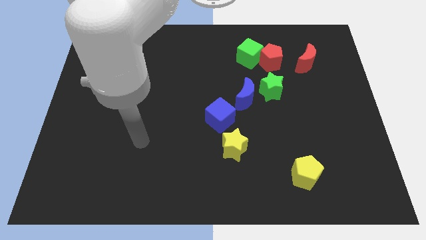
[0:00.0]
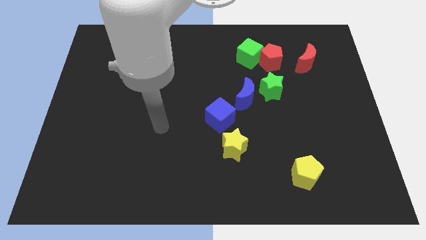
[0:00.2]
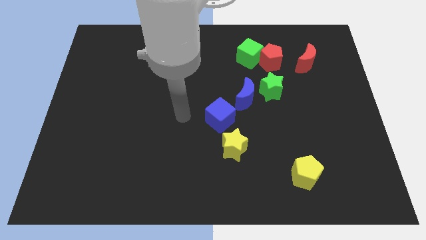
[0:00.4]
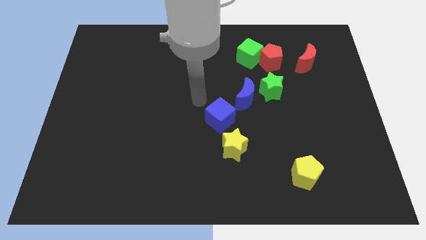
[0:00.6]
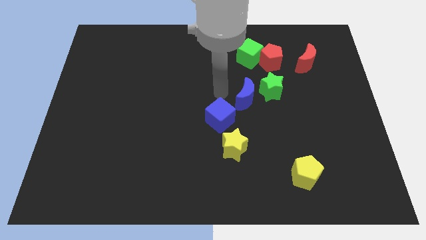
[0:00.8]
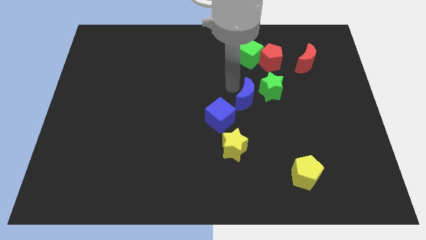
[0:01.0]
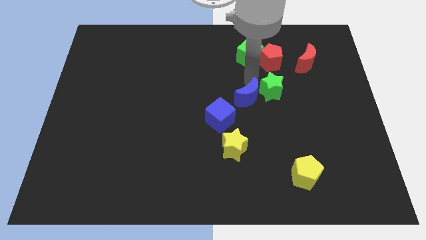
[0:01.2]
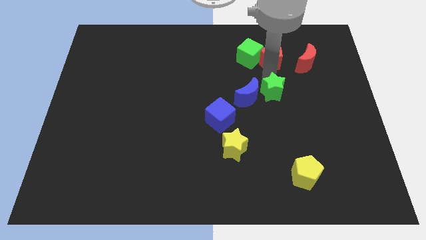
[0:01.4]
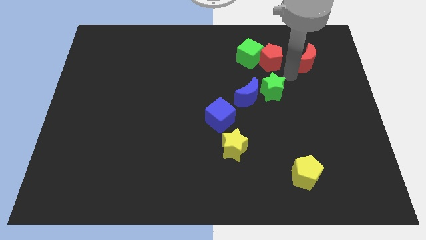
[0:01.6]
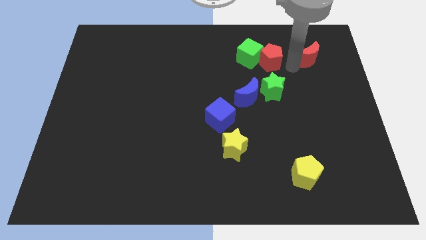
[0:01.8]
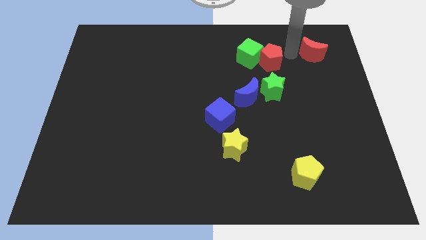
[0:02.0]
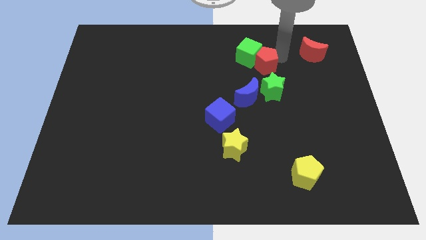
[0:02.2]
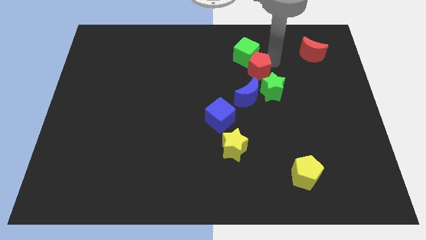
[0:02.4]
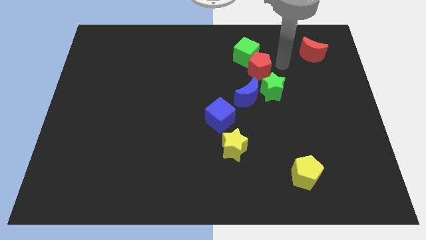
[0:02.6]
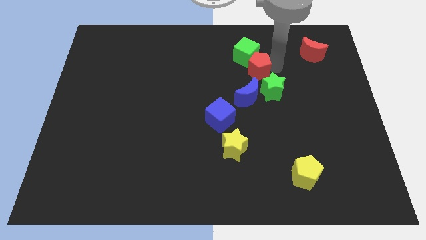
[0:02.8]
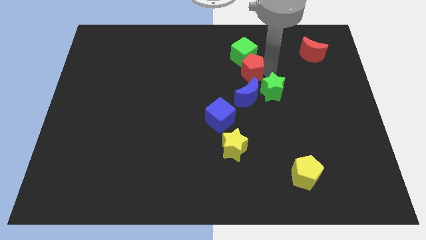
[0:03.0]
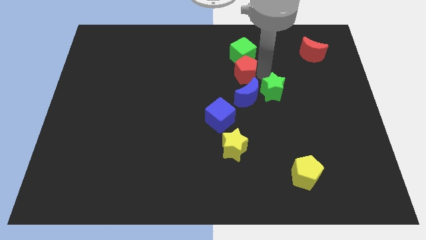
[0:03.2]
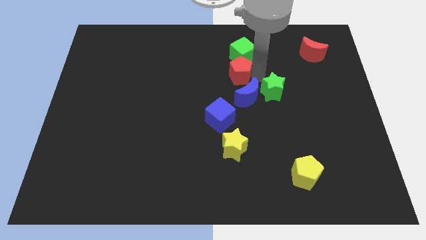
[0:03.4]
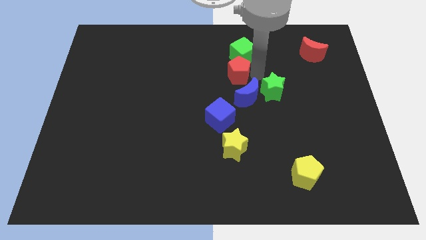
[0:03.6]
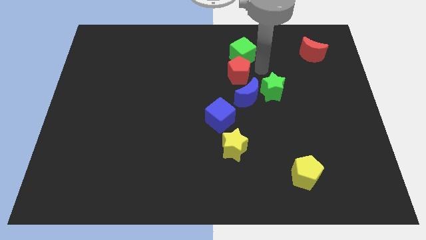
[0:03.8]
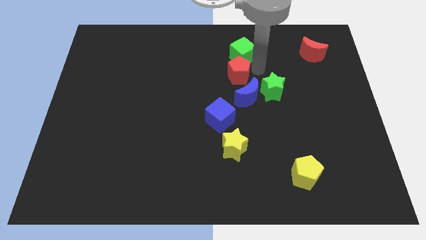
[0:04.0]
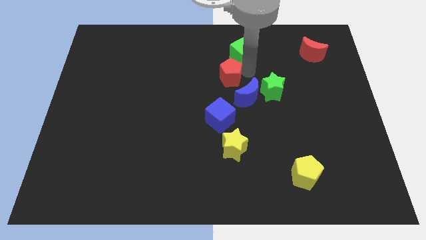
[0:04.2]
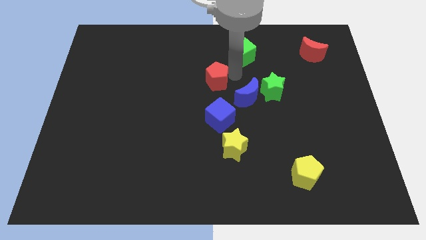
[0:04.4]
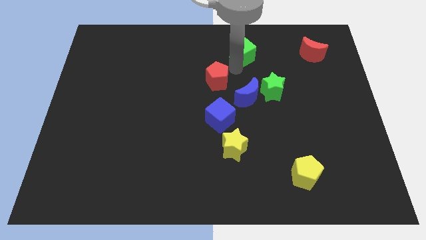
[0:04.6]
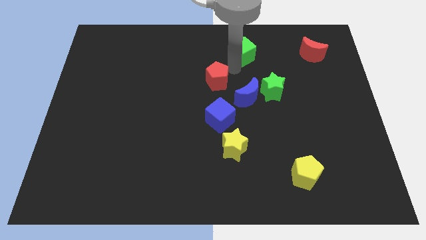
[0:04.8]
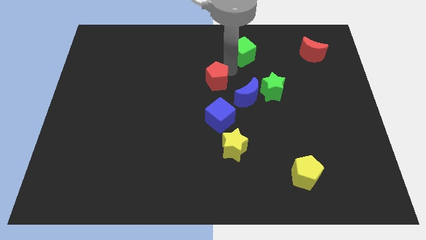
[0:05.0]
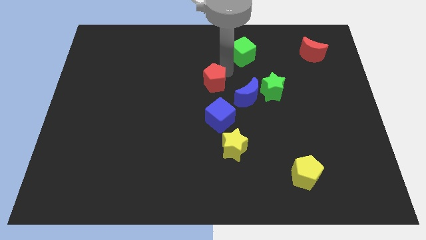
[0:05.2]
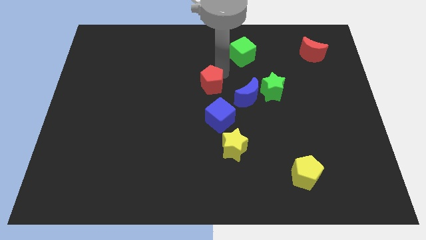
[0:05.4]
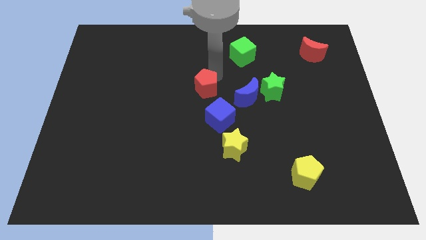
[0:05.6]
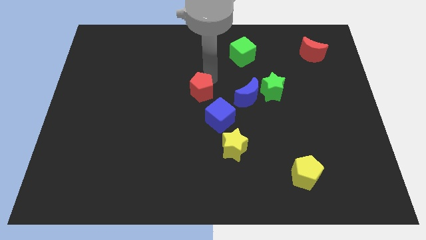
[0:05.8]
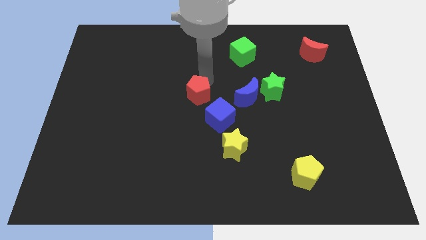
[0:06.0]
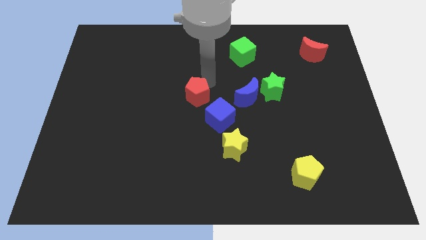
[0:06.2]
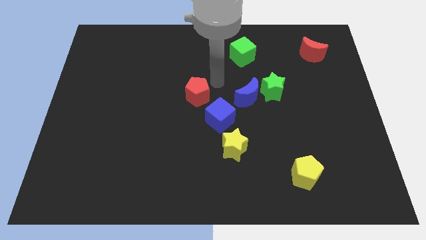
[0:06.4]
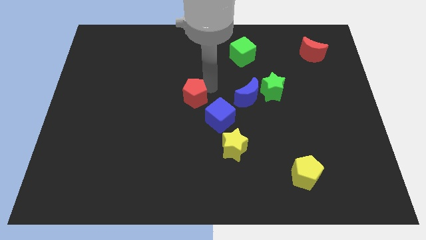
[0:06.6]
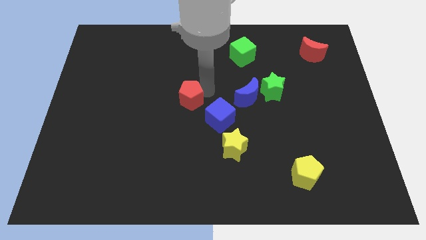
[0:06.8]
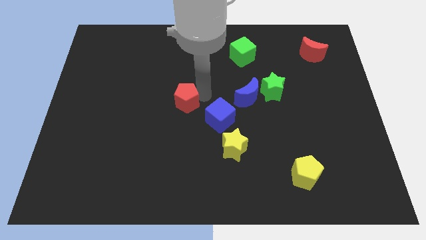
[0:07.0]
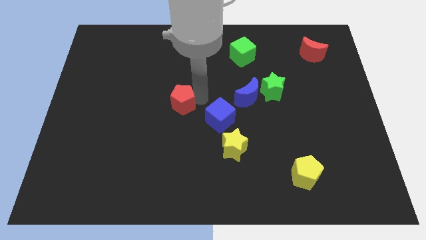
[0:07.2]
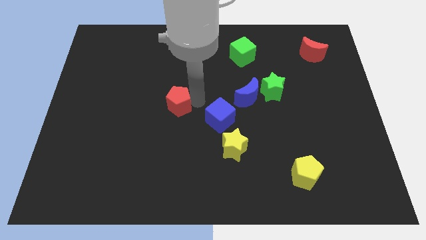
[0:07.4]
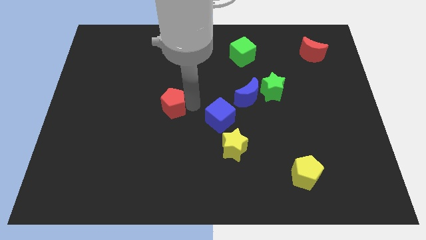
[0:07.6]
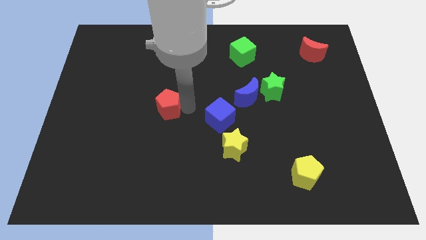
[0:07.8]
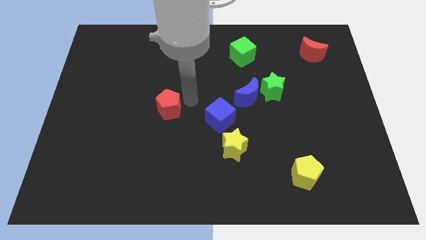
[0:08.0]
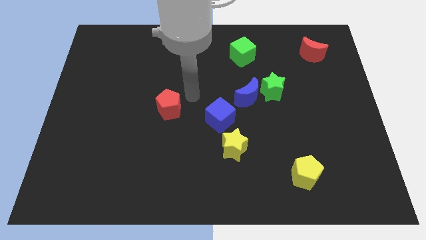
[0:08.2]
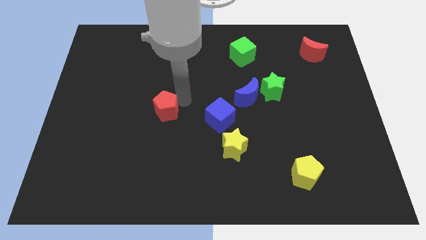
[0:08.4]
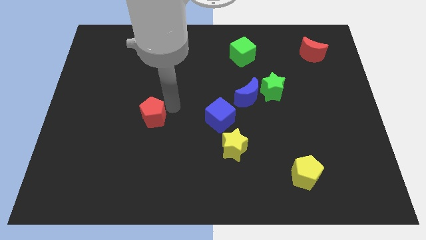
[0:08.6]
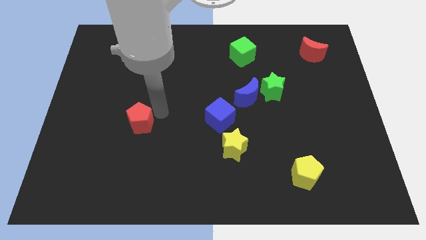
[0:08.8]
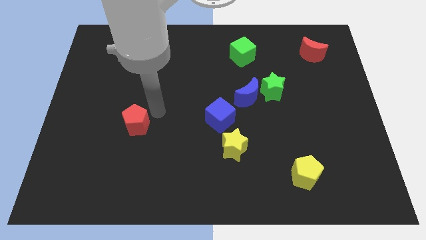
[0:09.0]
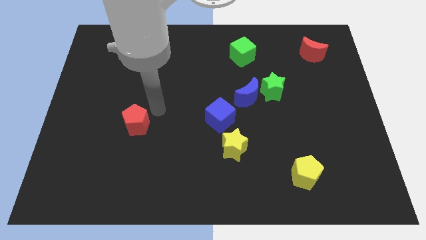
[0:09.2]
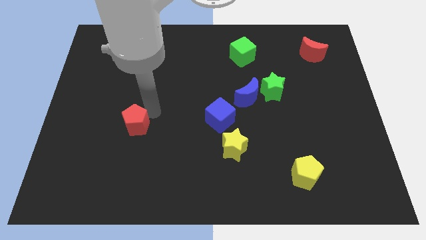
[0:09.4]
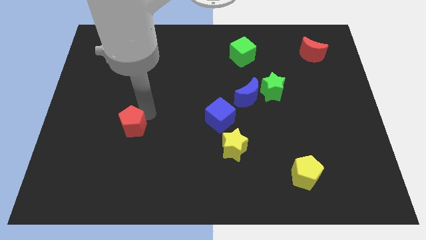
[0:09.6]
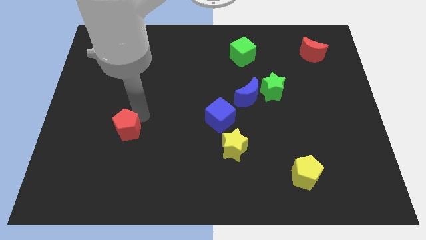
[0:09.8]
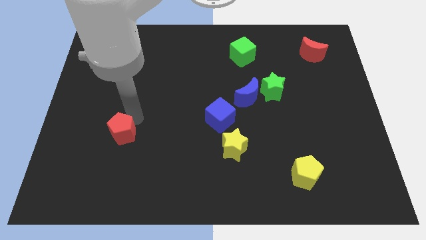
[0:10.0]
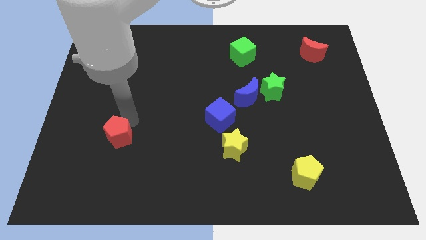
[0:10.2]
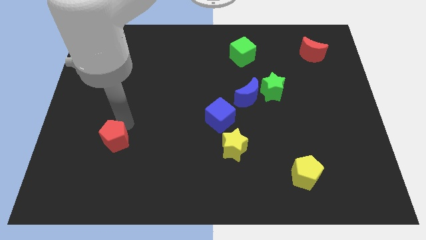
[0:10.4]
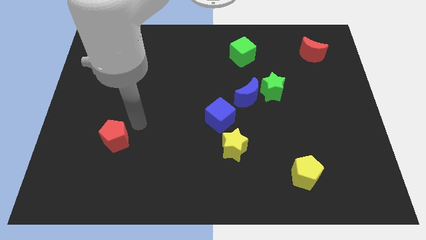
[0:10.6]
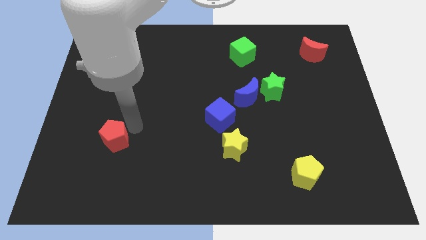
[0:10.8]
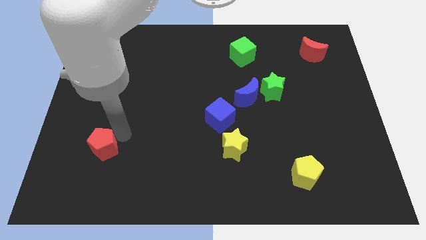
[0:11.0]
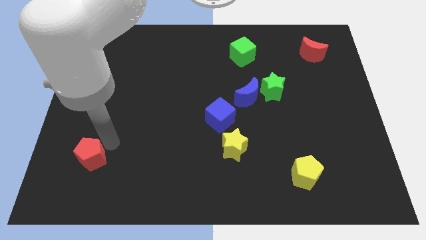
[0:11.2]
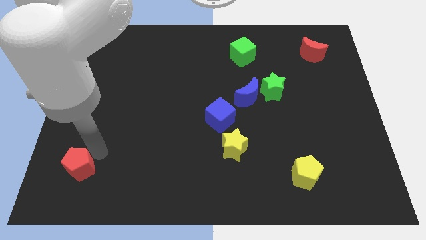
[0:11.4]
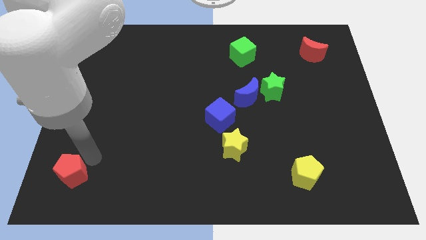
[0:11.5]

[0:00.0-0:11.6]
push the red pentagon to the bottom left

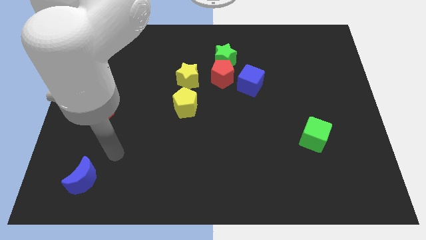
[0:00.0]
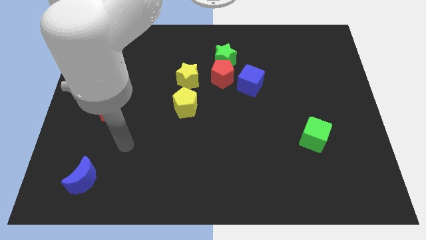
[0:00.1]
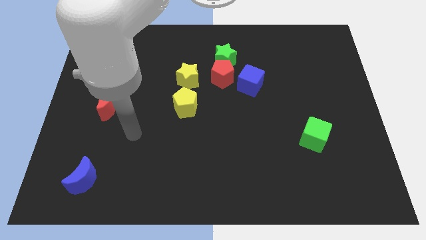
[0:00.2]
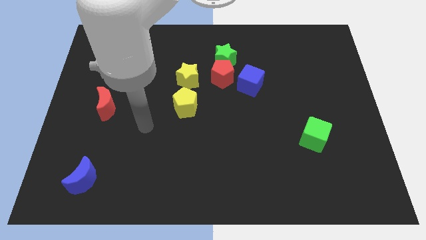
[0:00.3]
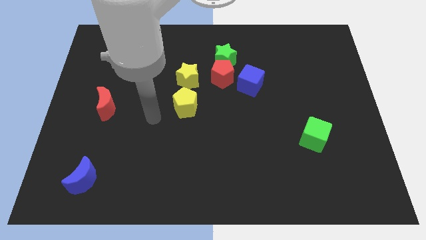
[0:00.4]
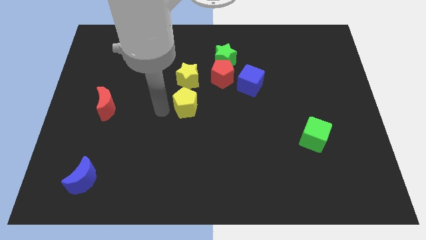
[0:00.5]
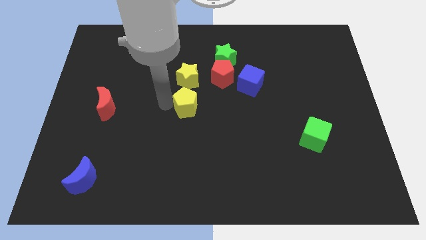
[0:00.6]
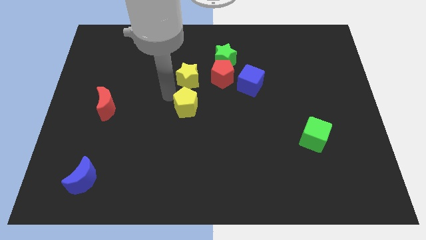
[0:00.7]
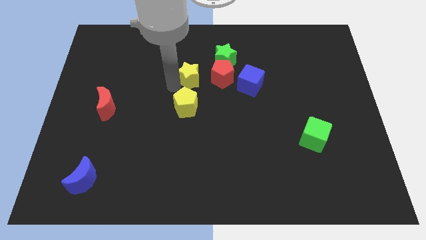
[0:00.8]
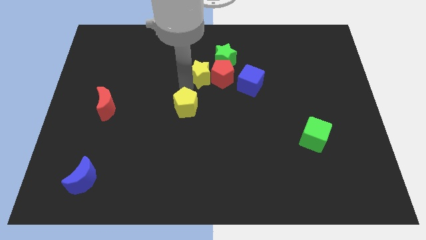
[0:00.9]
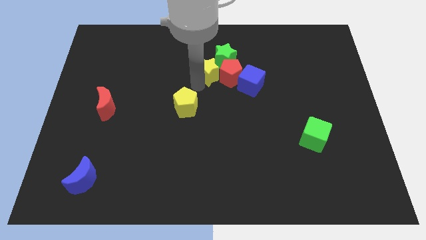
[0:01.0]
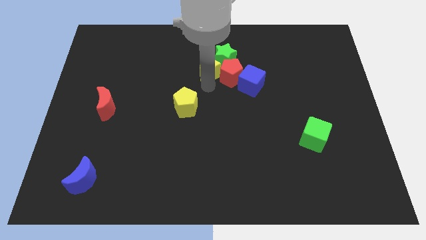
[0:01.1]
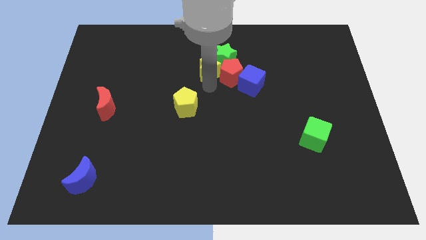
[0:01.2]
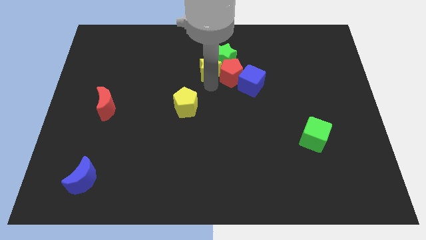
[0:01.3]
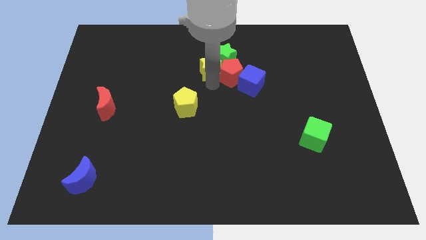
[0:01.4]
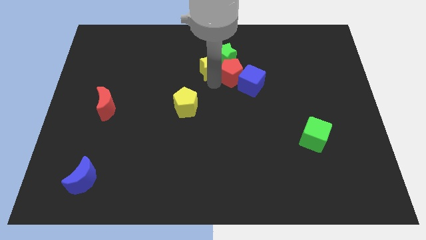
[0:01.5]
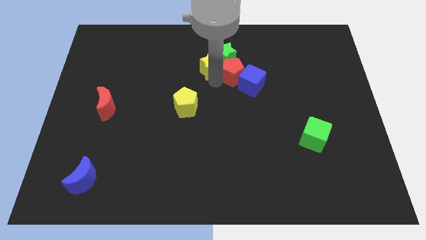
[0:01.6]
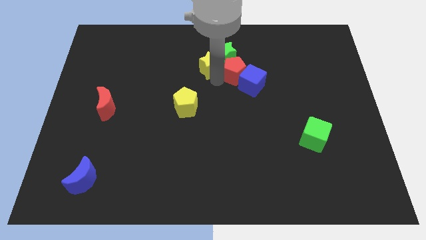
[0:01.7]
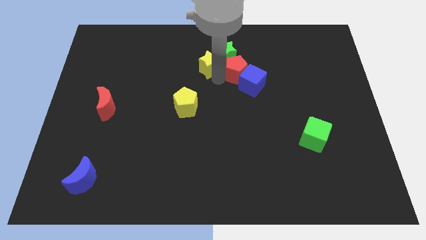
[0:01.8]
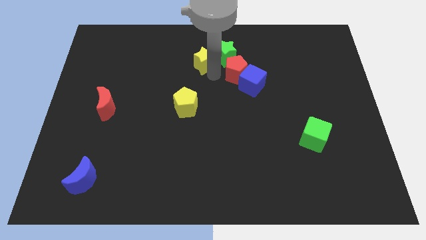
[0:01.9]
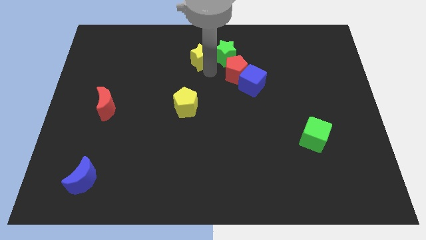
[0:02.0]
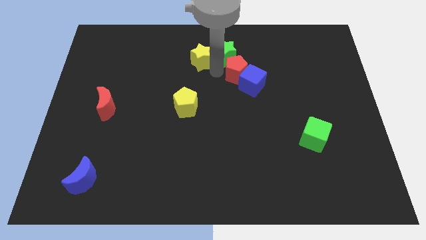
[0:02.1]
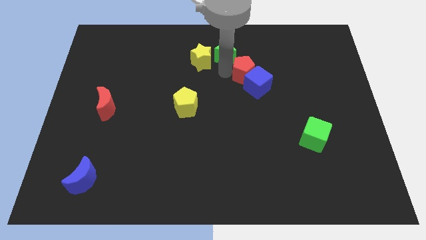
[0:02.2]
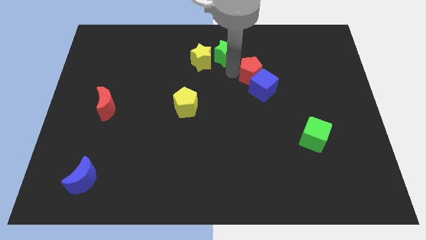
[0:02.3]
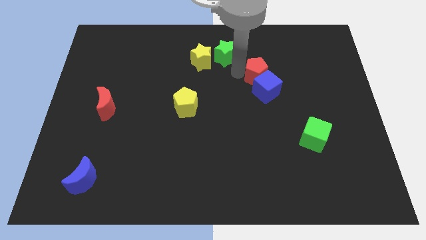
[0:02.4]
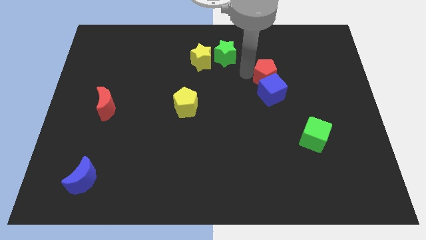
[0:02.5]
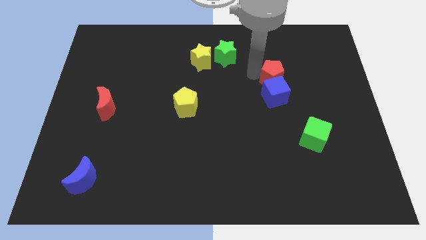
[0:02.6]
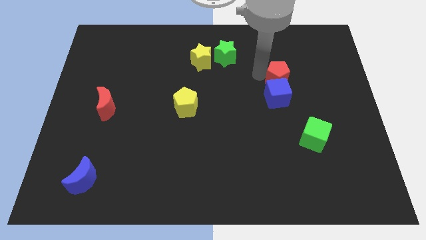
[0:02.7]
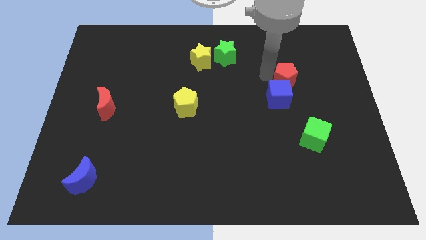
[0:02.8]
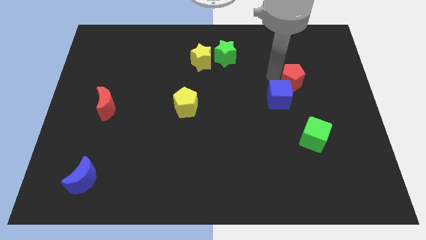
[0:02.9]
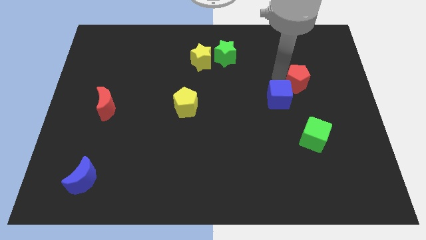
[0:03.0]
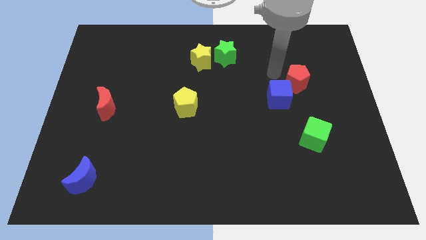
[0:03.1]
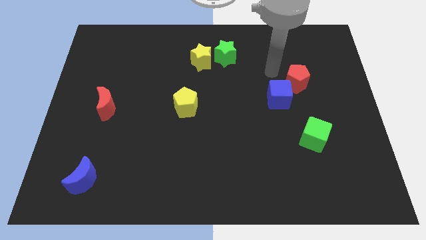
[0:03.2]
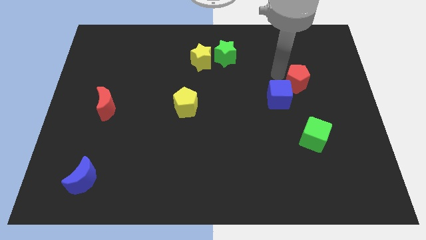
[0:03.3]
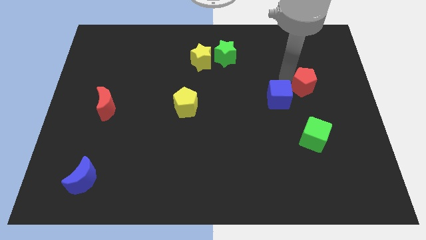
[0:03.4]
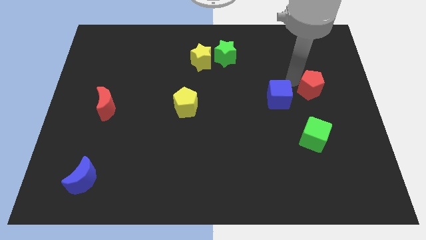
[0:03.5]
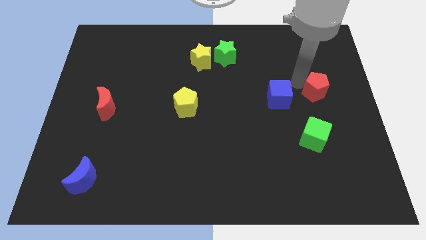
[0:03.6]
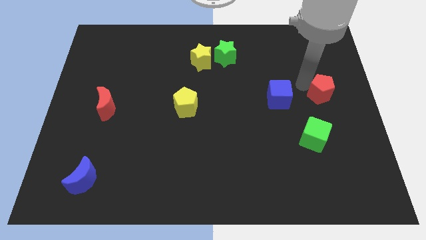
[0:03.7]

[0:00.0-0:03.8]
push the red pentagon to the right side
